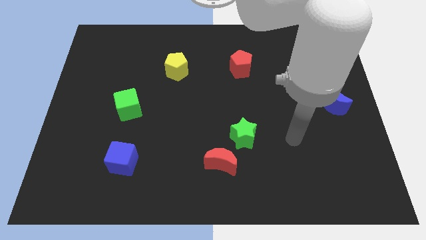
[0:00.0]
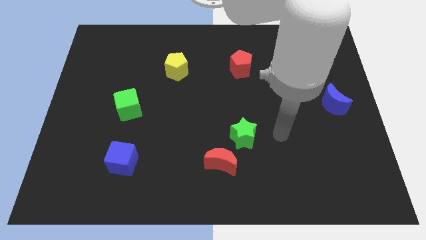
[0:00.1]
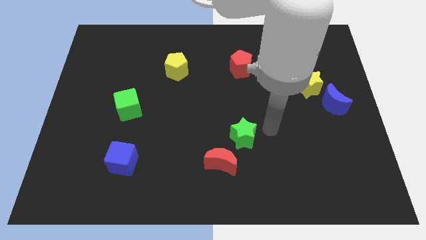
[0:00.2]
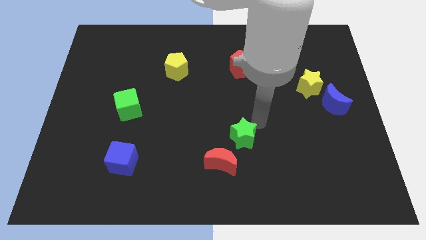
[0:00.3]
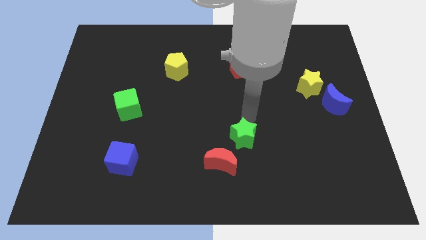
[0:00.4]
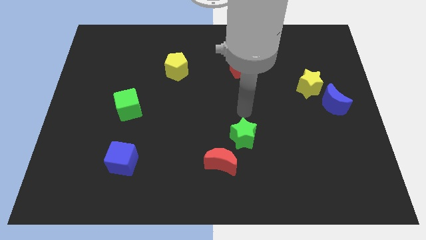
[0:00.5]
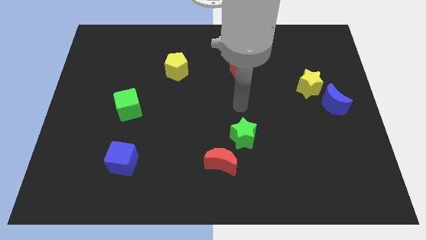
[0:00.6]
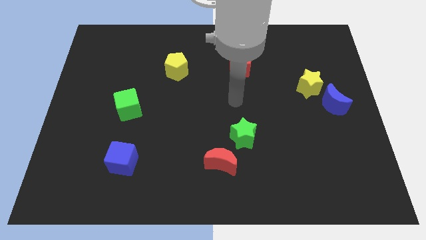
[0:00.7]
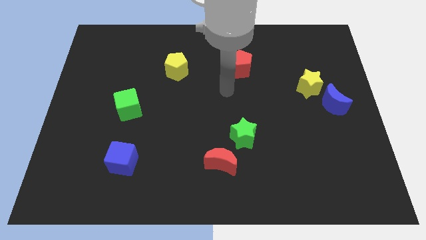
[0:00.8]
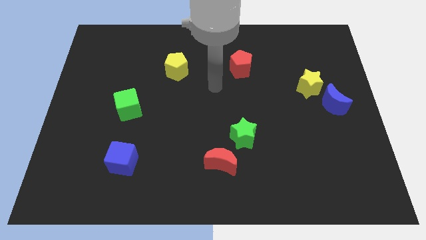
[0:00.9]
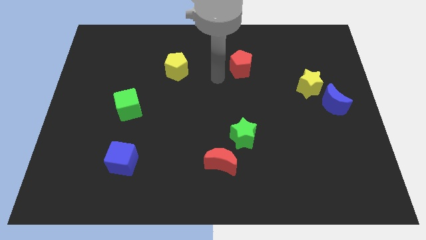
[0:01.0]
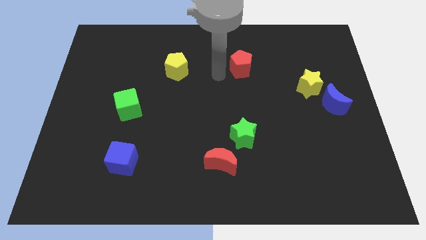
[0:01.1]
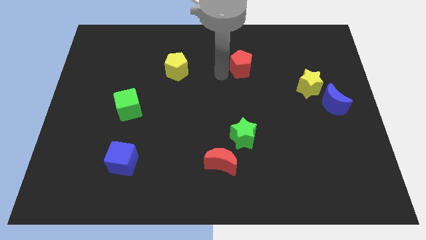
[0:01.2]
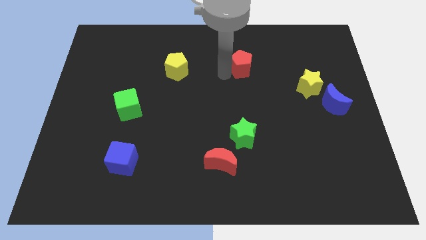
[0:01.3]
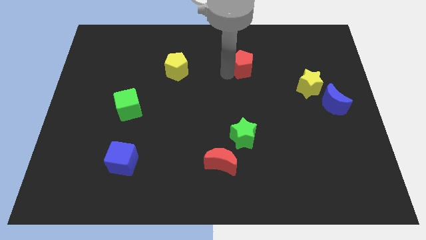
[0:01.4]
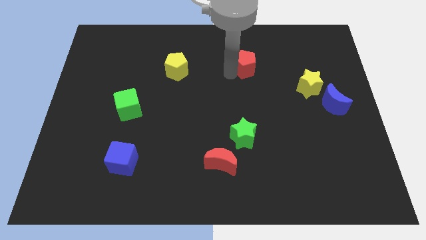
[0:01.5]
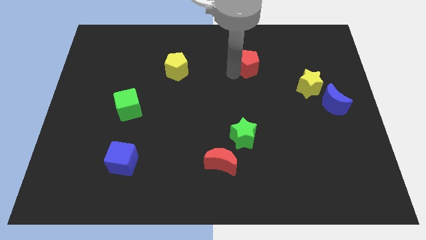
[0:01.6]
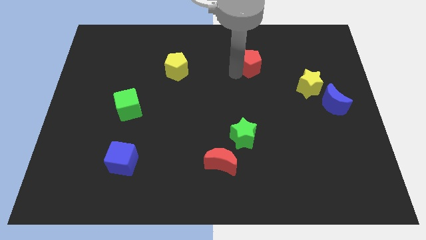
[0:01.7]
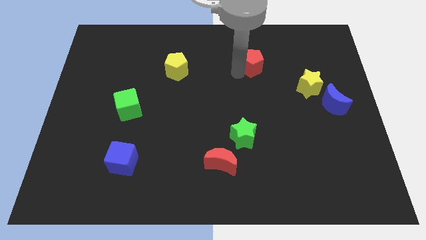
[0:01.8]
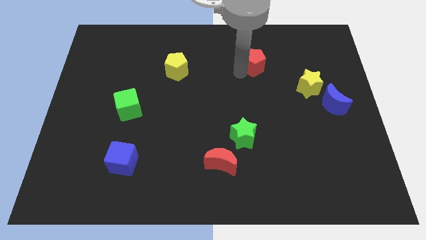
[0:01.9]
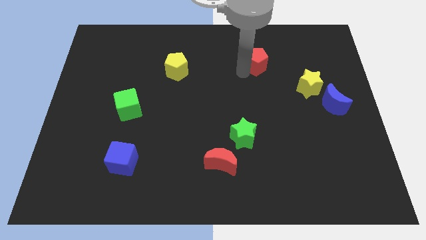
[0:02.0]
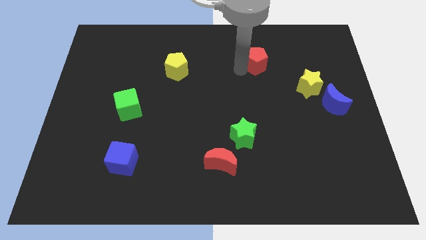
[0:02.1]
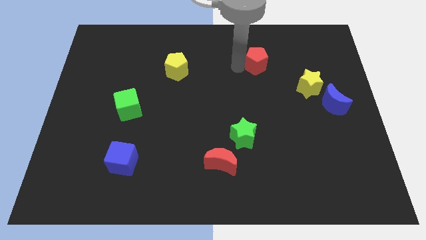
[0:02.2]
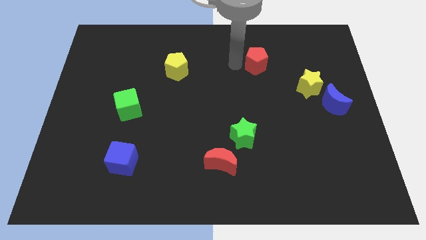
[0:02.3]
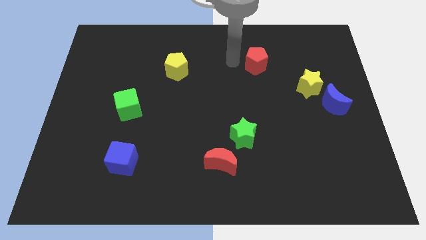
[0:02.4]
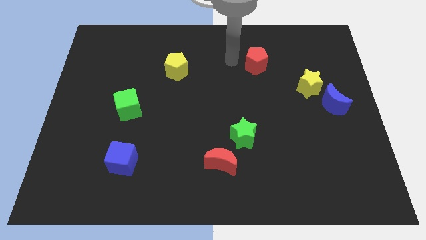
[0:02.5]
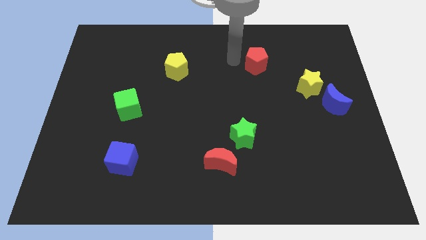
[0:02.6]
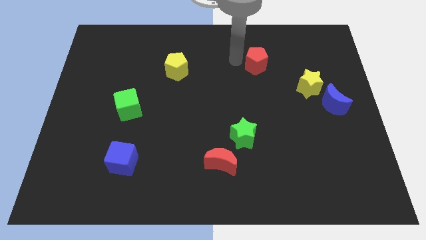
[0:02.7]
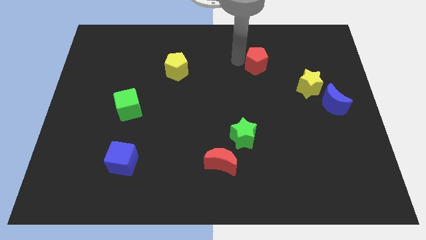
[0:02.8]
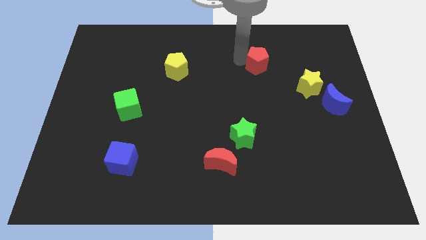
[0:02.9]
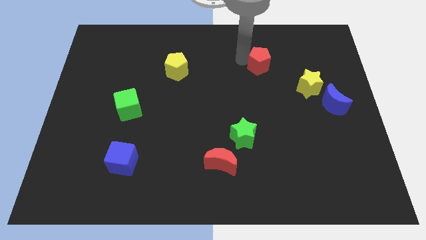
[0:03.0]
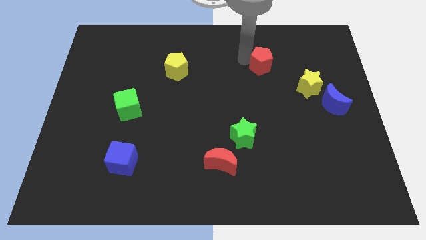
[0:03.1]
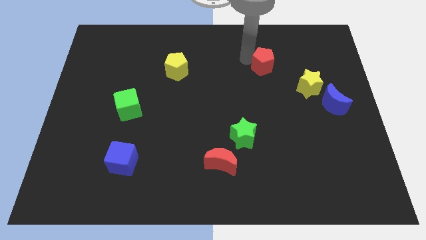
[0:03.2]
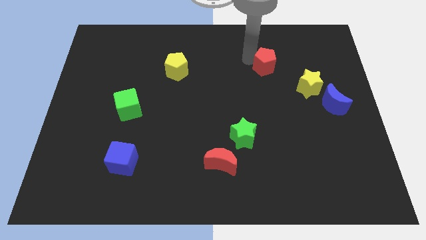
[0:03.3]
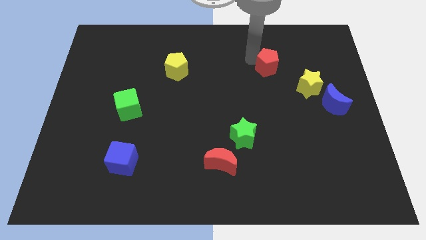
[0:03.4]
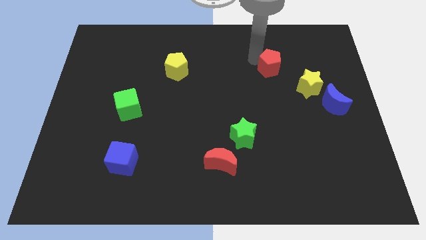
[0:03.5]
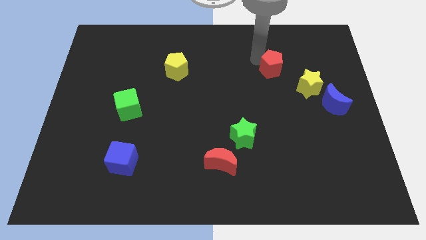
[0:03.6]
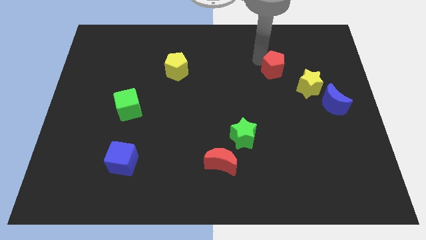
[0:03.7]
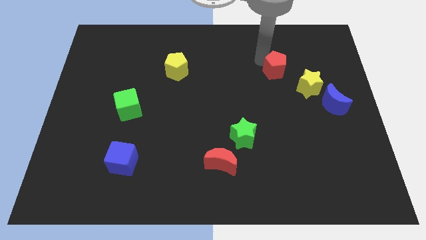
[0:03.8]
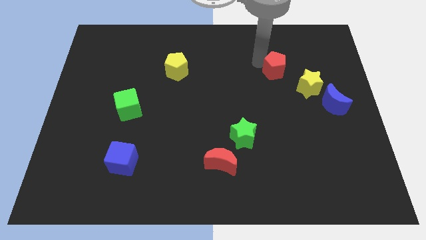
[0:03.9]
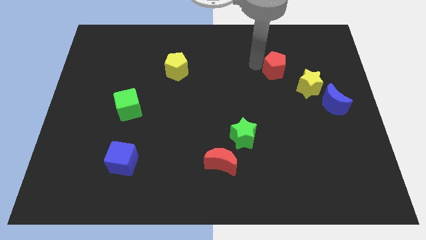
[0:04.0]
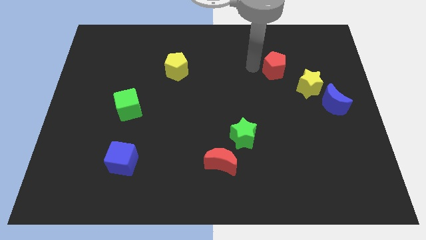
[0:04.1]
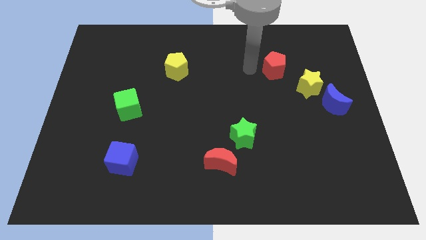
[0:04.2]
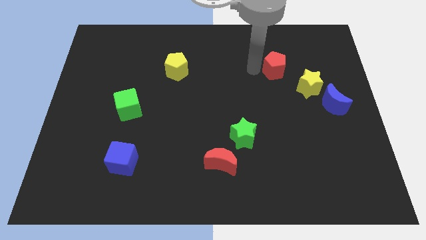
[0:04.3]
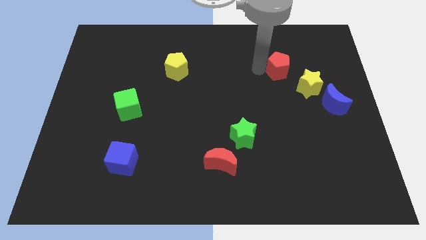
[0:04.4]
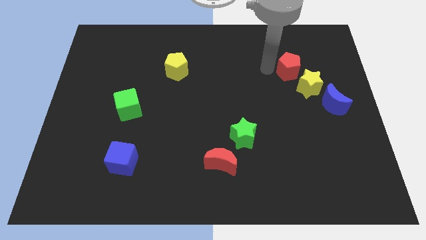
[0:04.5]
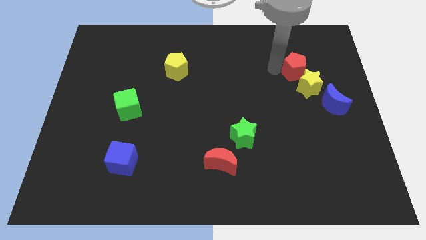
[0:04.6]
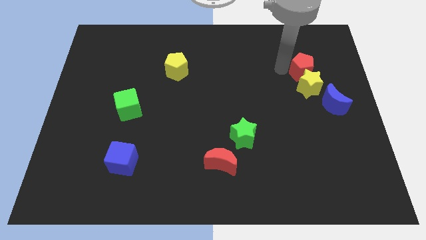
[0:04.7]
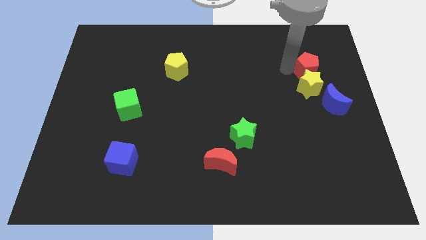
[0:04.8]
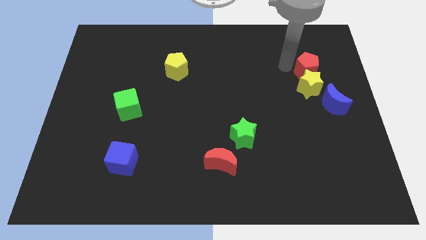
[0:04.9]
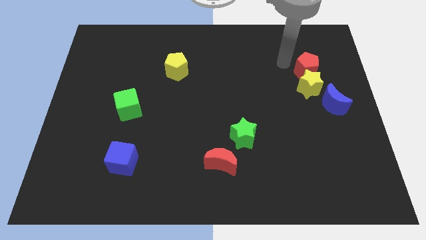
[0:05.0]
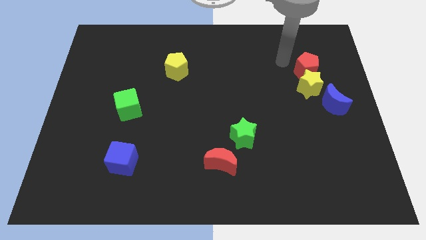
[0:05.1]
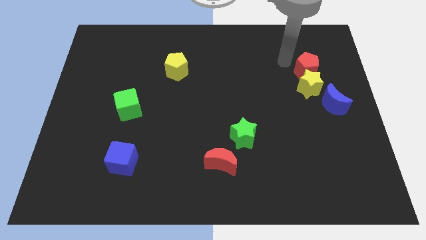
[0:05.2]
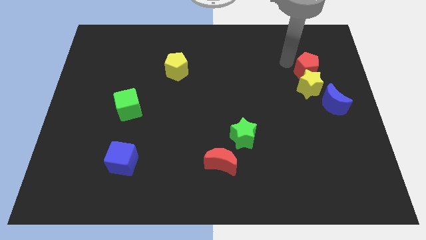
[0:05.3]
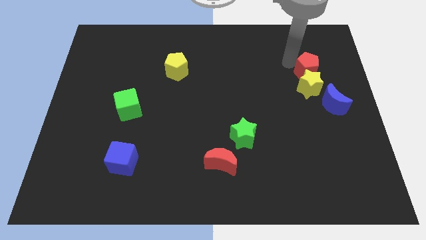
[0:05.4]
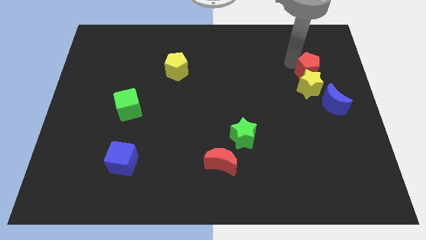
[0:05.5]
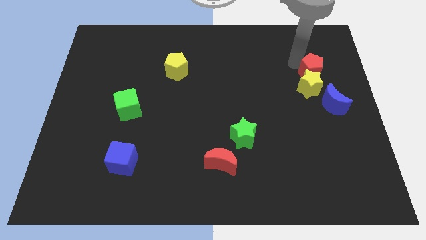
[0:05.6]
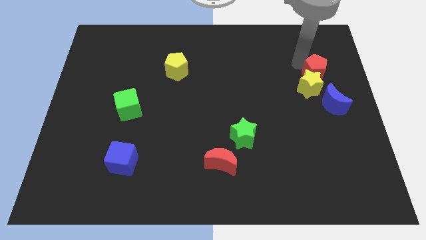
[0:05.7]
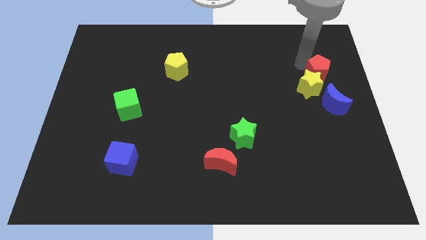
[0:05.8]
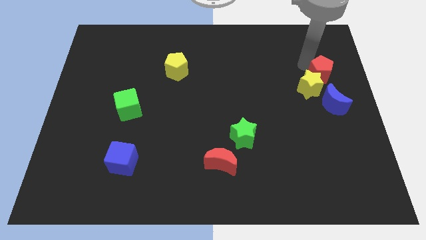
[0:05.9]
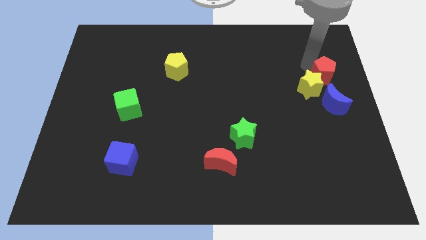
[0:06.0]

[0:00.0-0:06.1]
move the red pentagon to the right side

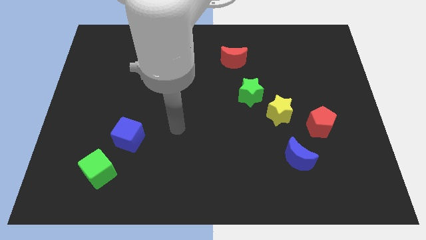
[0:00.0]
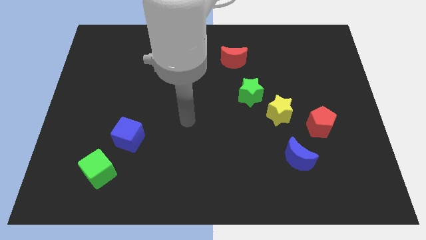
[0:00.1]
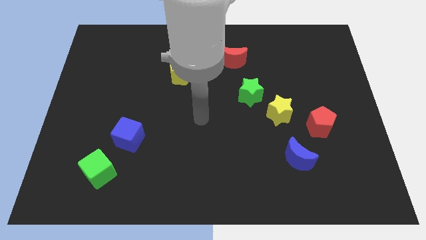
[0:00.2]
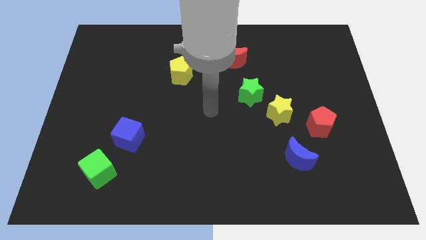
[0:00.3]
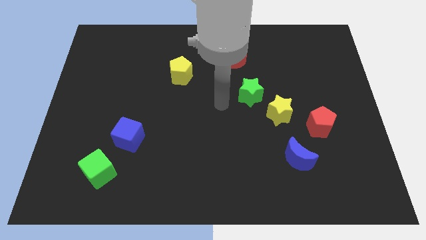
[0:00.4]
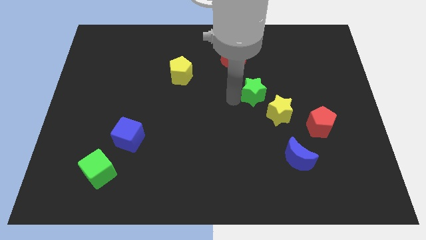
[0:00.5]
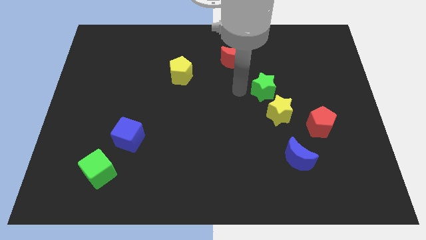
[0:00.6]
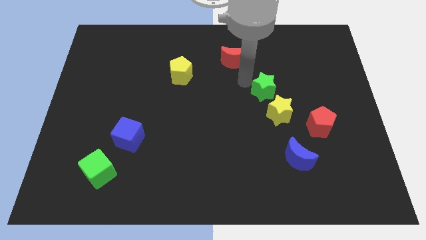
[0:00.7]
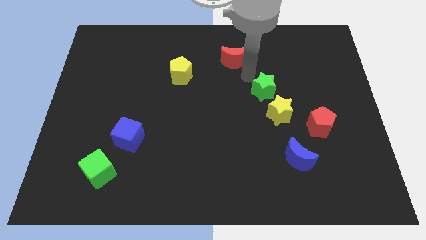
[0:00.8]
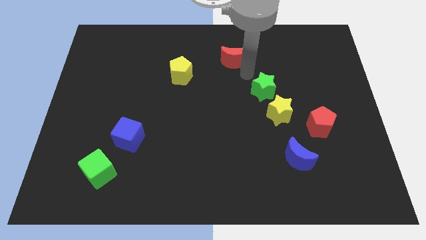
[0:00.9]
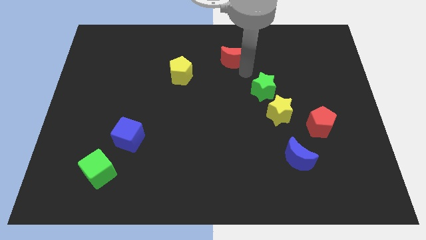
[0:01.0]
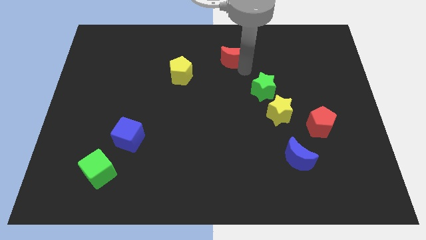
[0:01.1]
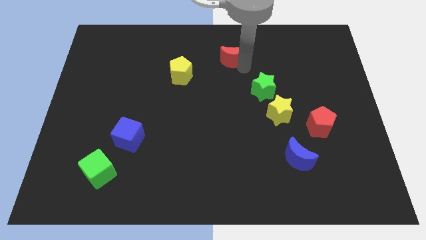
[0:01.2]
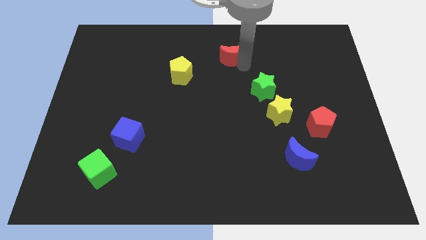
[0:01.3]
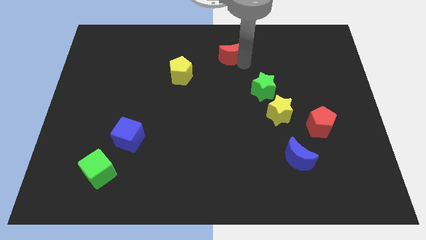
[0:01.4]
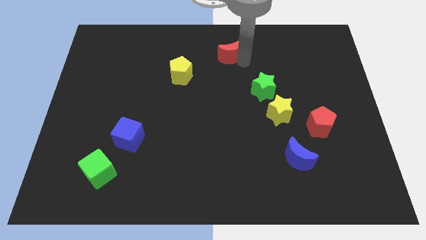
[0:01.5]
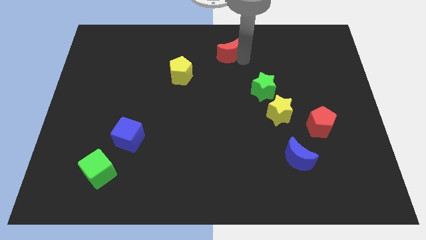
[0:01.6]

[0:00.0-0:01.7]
push the red moon to the towards your base
